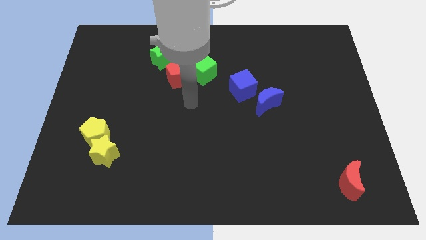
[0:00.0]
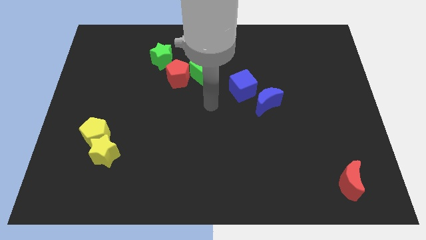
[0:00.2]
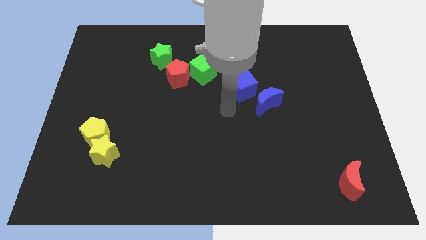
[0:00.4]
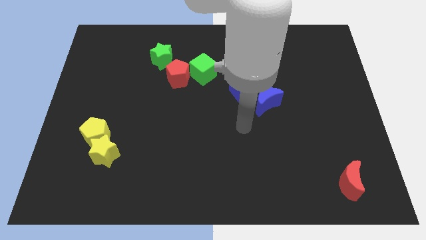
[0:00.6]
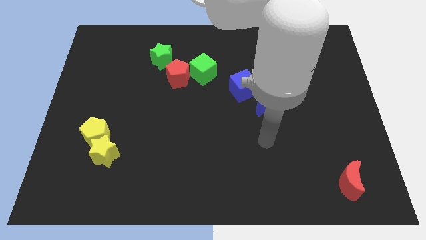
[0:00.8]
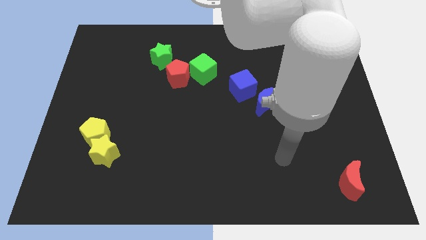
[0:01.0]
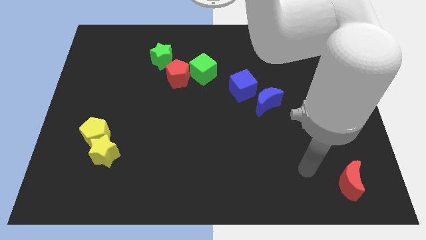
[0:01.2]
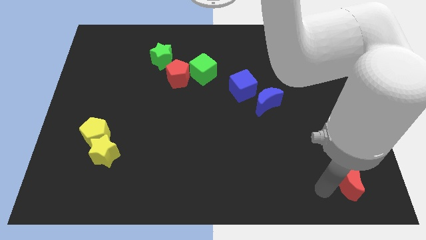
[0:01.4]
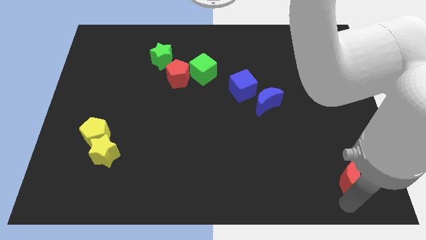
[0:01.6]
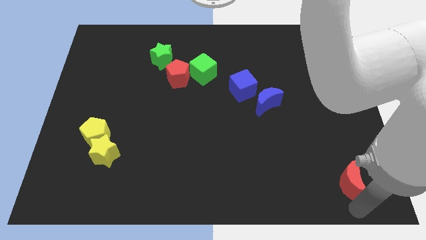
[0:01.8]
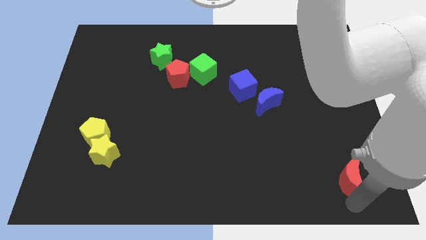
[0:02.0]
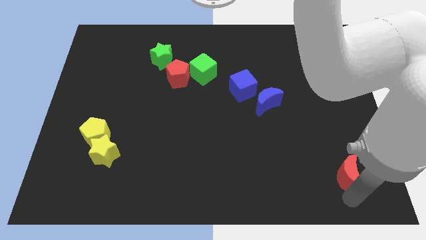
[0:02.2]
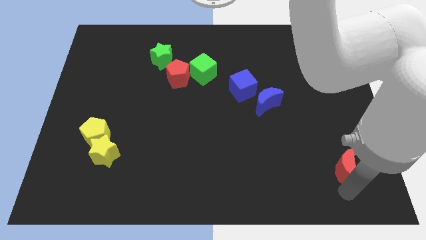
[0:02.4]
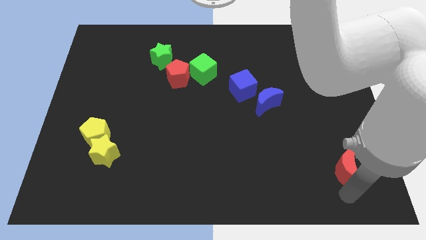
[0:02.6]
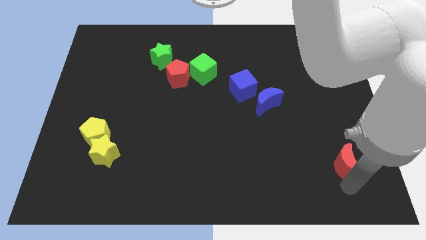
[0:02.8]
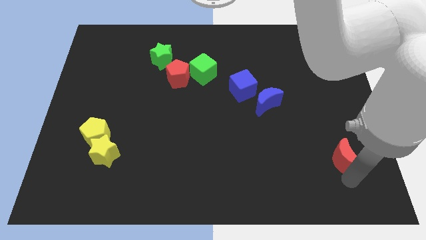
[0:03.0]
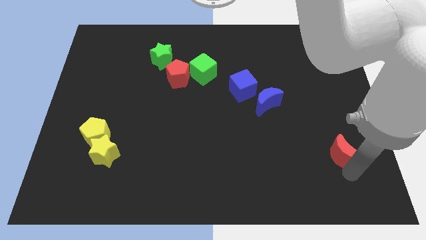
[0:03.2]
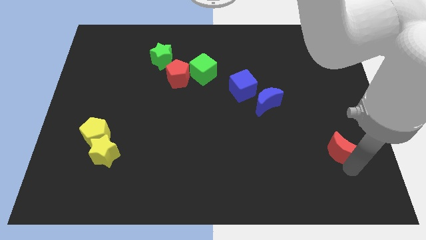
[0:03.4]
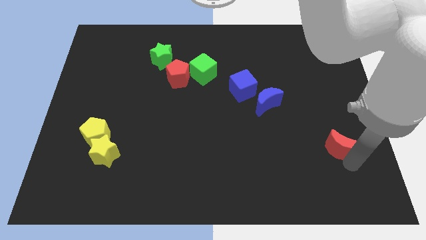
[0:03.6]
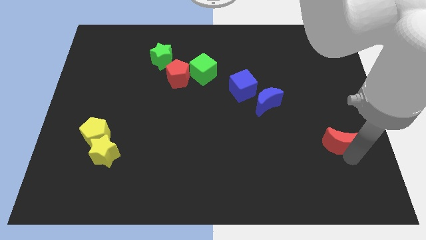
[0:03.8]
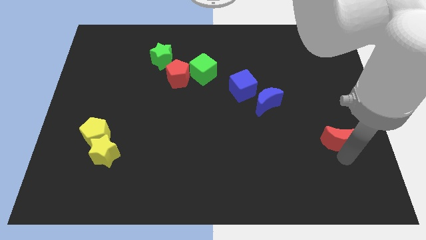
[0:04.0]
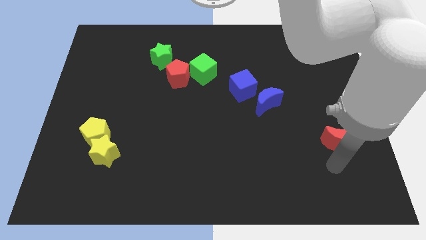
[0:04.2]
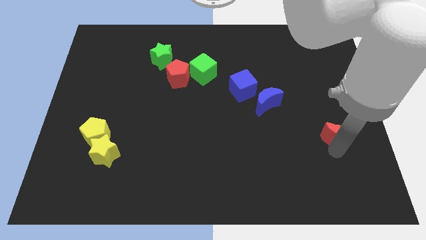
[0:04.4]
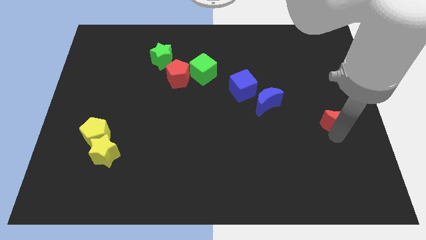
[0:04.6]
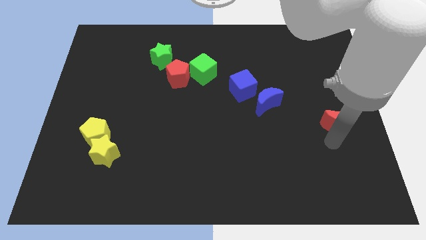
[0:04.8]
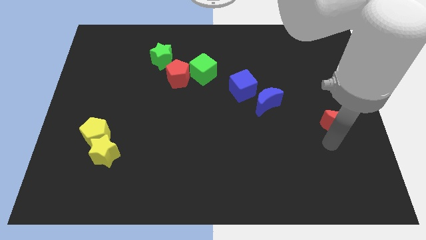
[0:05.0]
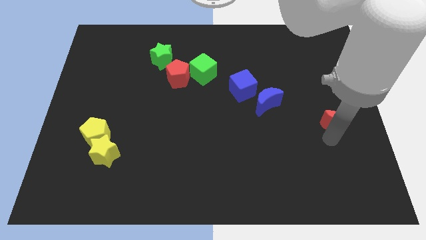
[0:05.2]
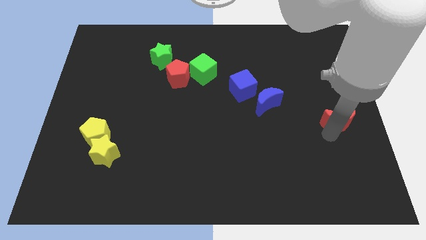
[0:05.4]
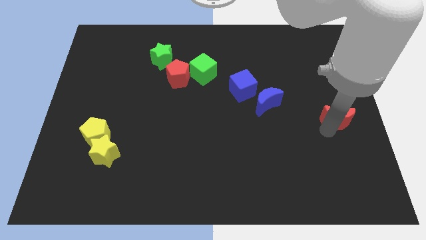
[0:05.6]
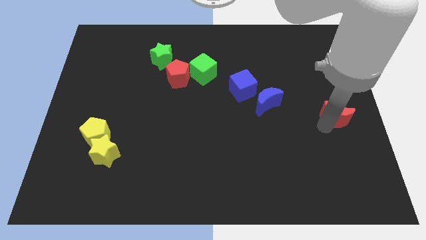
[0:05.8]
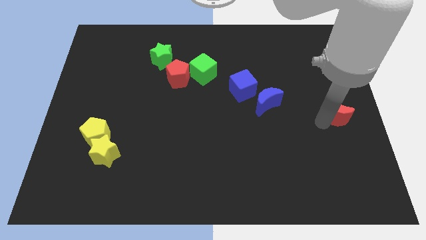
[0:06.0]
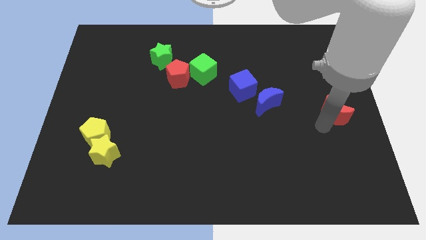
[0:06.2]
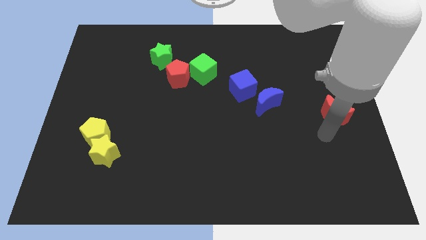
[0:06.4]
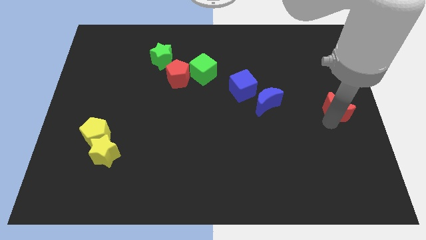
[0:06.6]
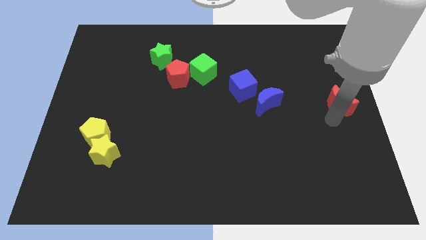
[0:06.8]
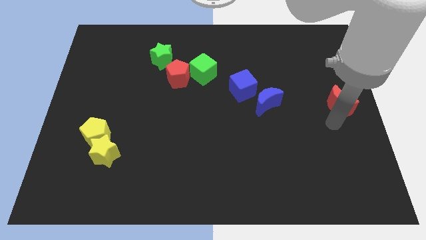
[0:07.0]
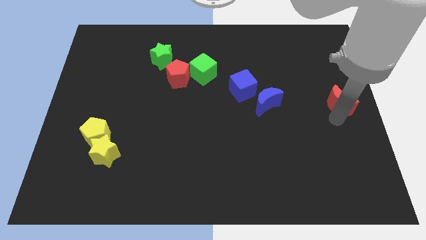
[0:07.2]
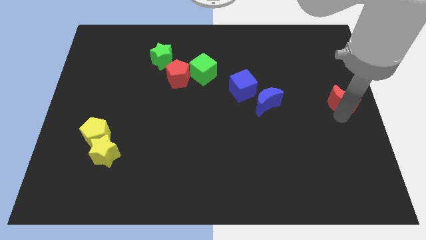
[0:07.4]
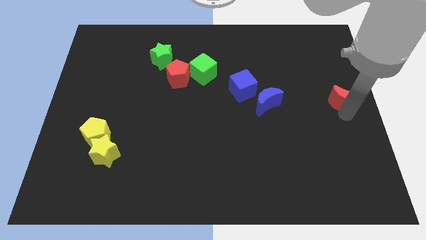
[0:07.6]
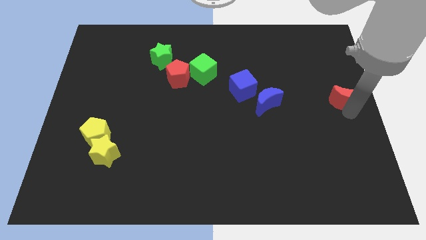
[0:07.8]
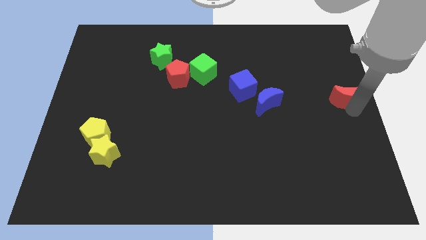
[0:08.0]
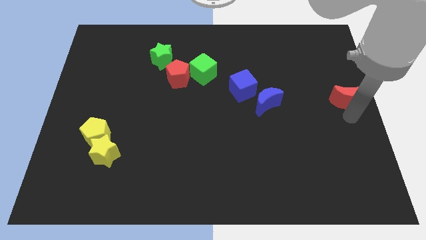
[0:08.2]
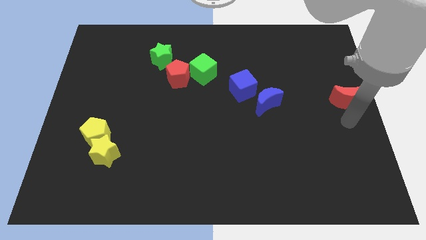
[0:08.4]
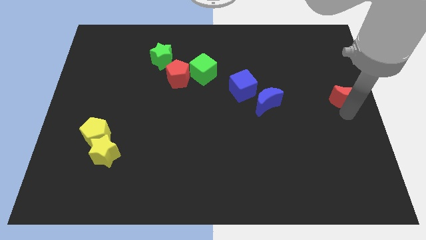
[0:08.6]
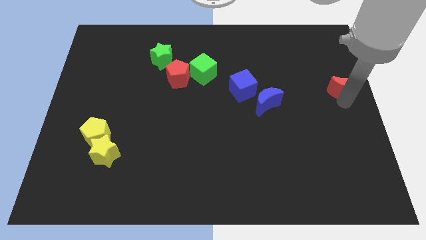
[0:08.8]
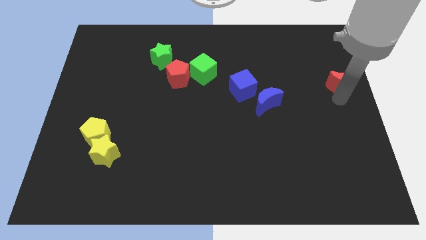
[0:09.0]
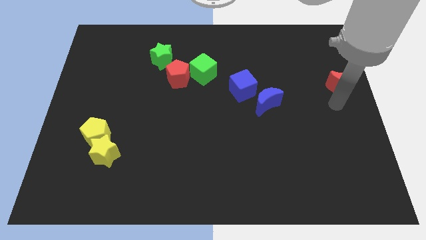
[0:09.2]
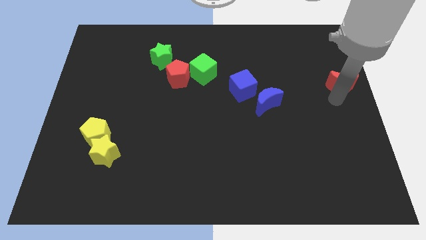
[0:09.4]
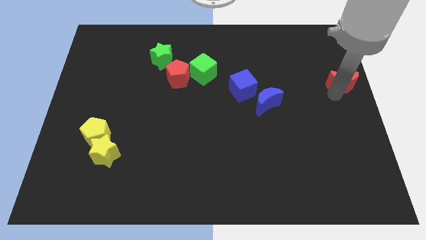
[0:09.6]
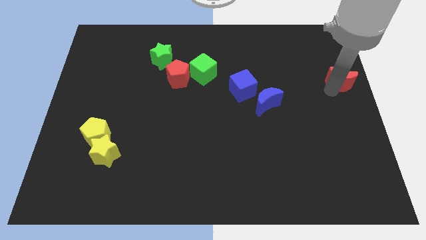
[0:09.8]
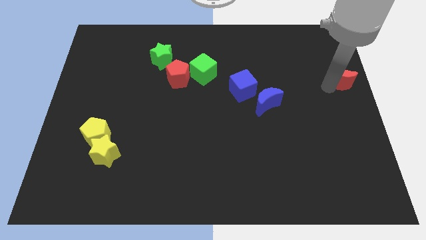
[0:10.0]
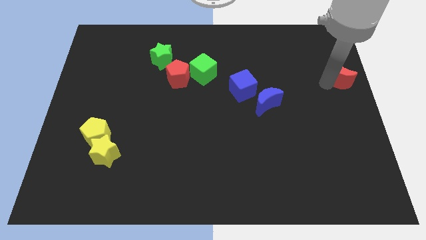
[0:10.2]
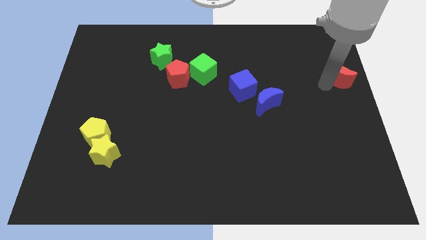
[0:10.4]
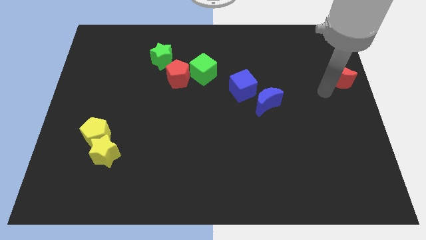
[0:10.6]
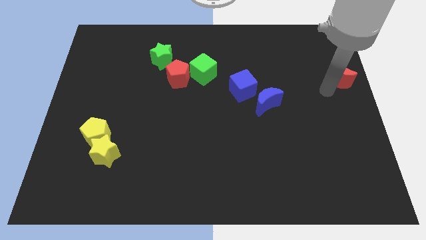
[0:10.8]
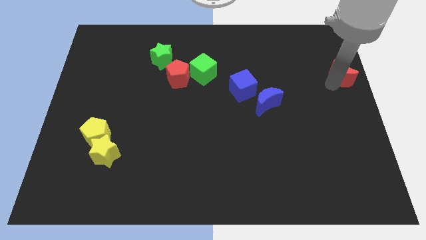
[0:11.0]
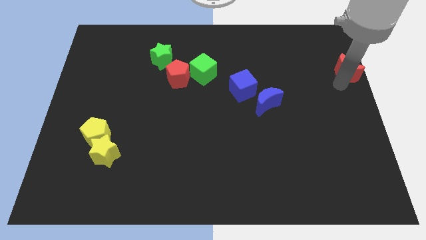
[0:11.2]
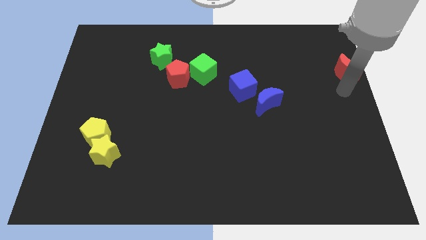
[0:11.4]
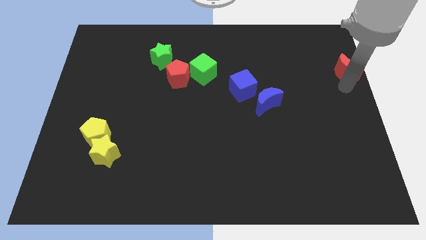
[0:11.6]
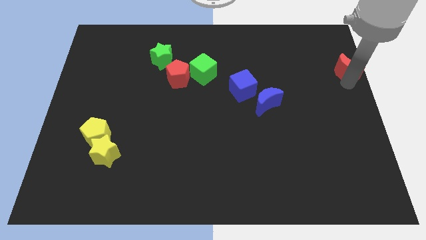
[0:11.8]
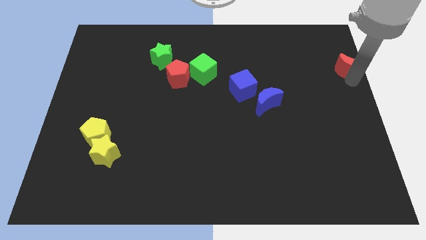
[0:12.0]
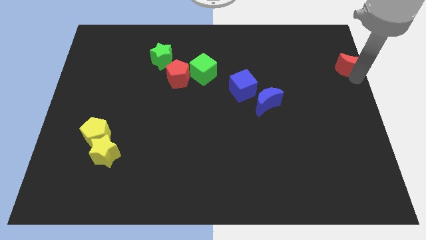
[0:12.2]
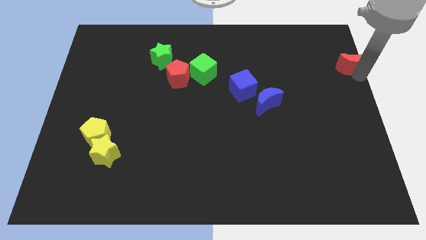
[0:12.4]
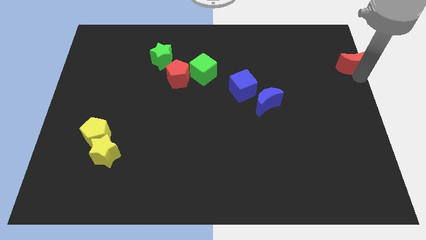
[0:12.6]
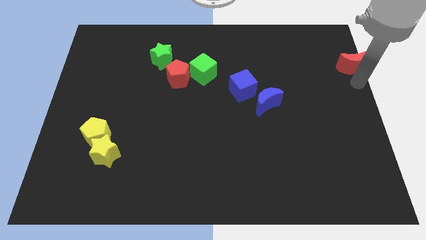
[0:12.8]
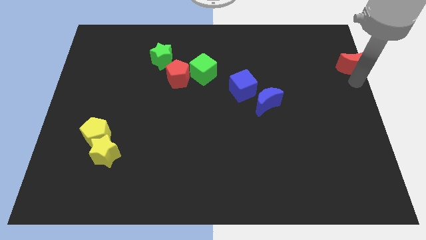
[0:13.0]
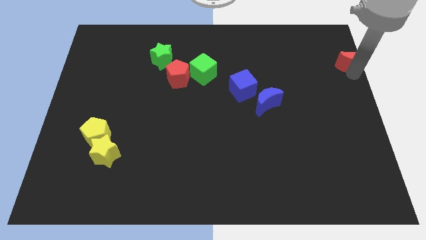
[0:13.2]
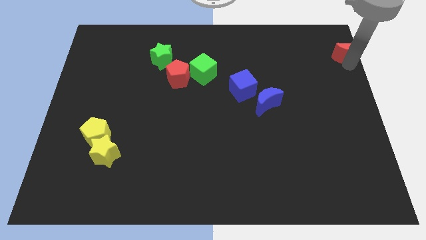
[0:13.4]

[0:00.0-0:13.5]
move the red moon to the top right of the board

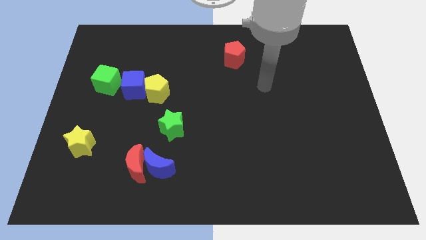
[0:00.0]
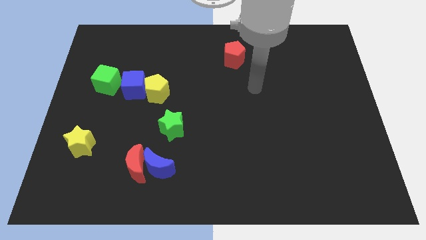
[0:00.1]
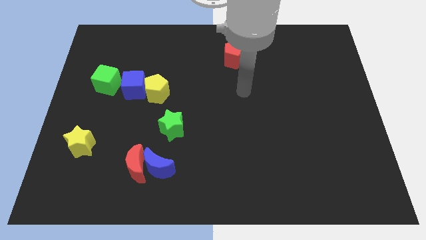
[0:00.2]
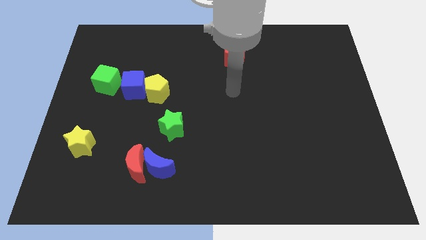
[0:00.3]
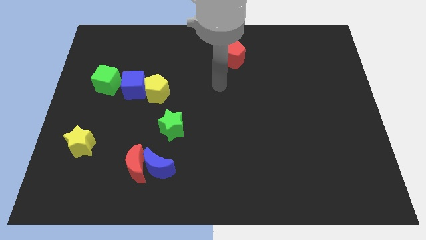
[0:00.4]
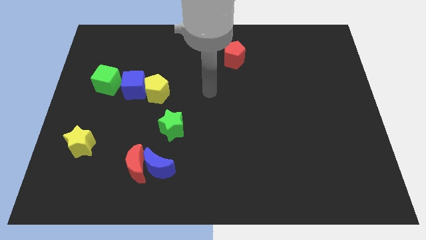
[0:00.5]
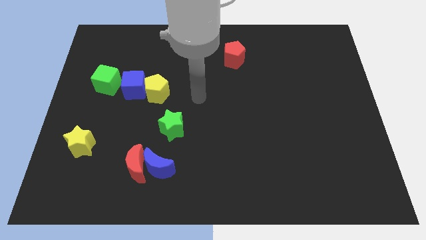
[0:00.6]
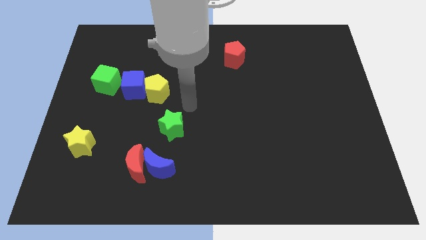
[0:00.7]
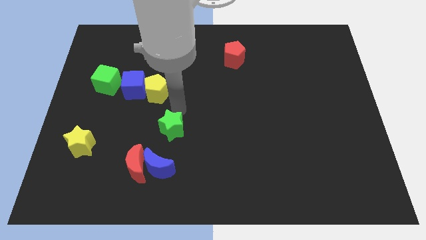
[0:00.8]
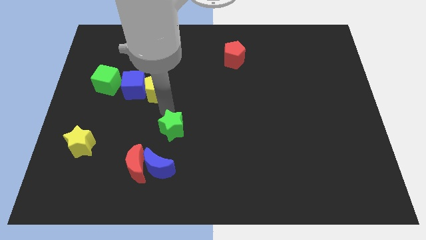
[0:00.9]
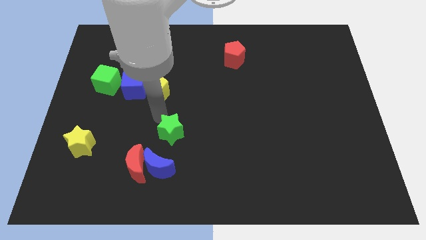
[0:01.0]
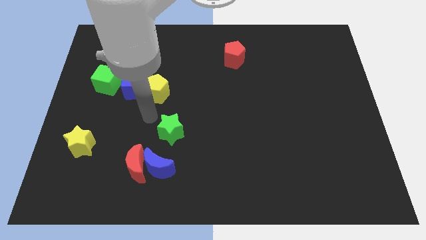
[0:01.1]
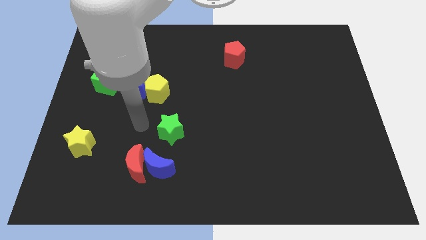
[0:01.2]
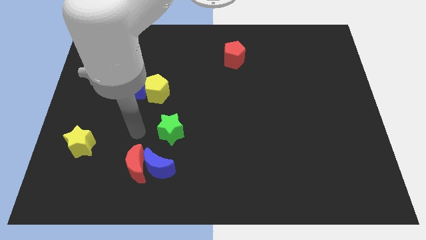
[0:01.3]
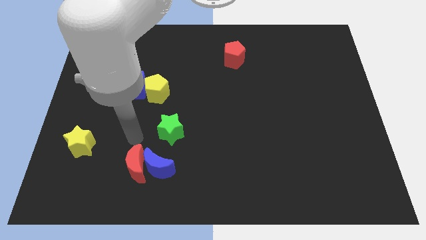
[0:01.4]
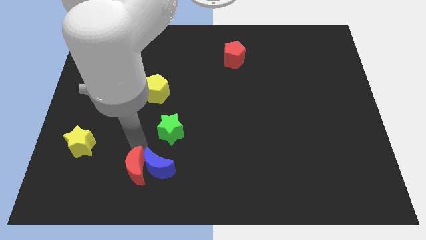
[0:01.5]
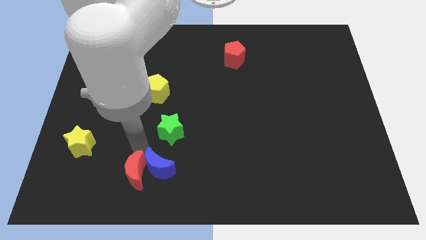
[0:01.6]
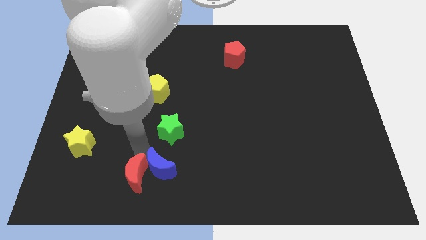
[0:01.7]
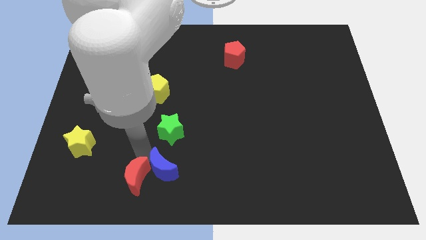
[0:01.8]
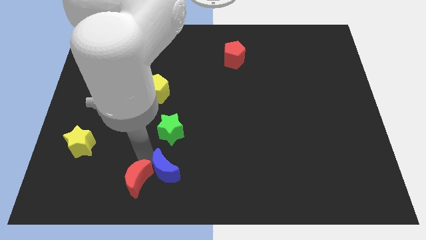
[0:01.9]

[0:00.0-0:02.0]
put the blue moon to the bottom side
